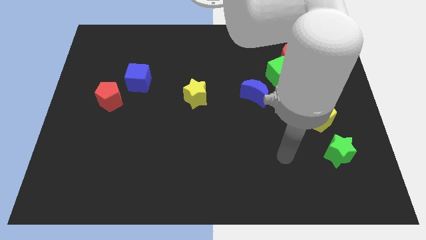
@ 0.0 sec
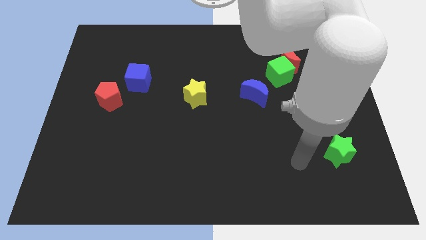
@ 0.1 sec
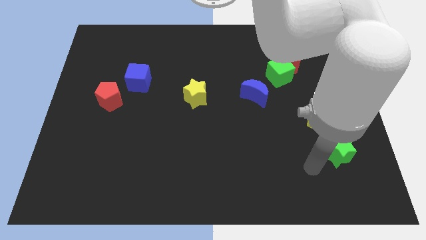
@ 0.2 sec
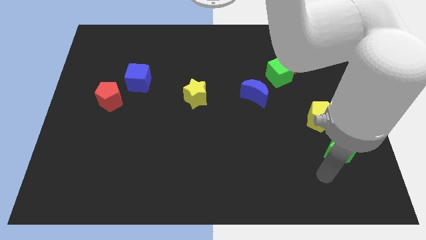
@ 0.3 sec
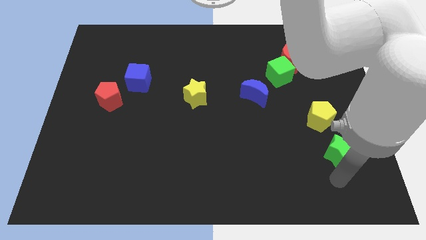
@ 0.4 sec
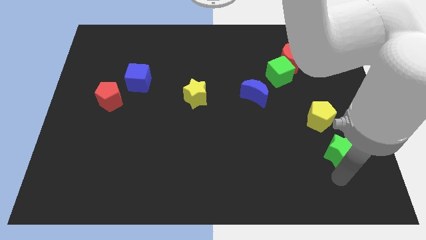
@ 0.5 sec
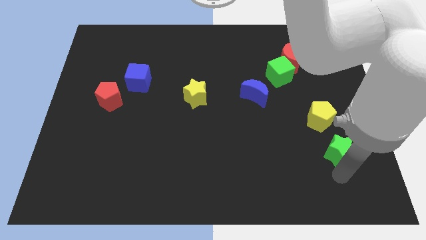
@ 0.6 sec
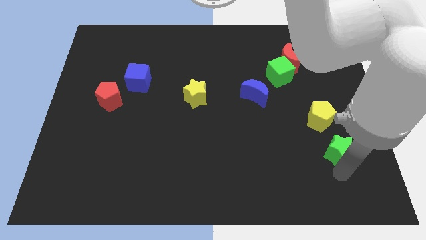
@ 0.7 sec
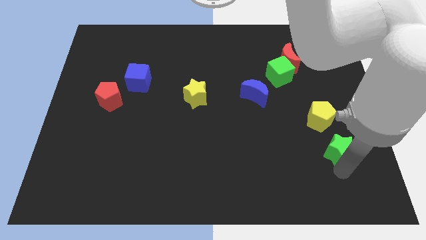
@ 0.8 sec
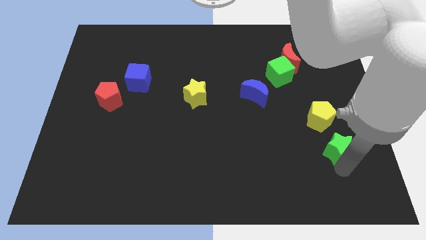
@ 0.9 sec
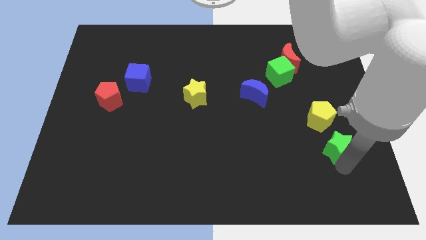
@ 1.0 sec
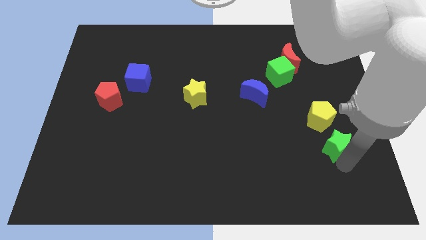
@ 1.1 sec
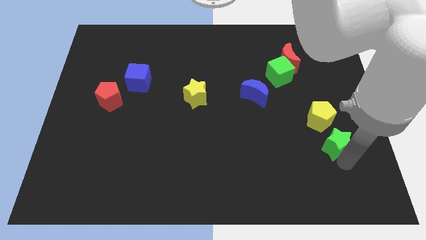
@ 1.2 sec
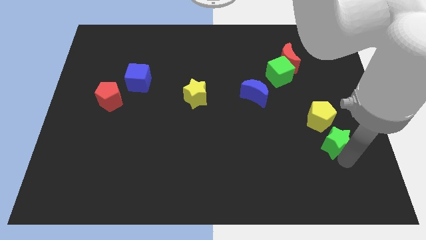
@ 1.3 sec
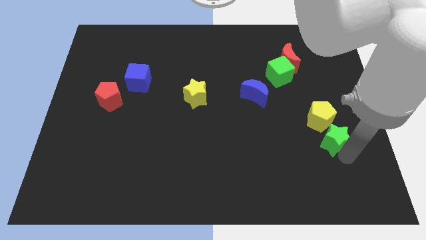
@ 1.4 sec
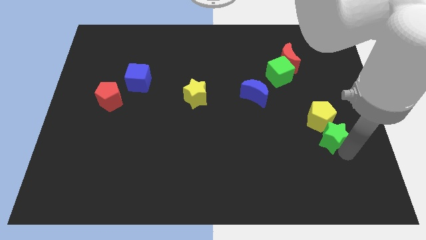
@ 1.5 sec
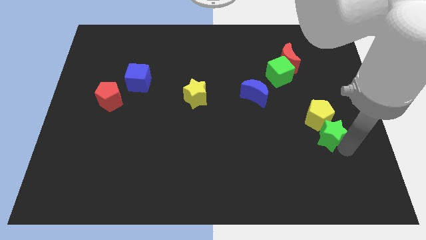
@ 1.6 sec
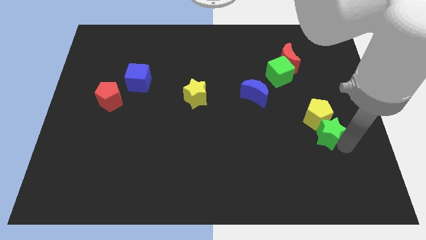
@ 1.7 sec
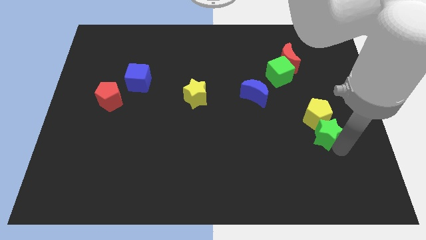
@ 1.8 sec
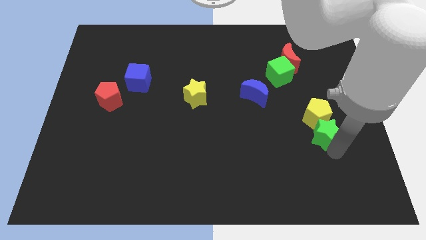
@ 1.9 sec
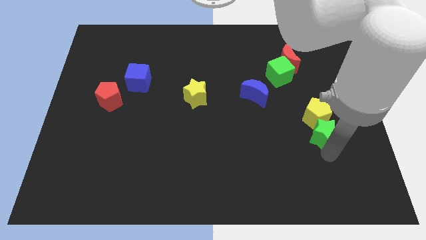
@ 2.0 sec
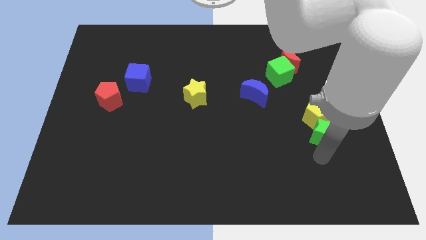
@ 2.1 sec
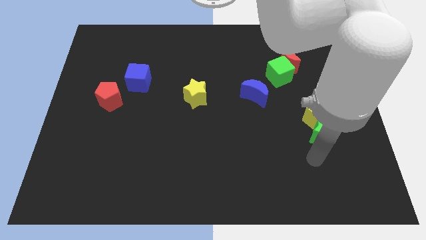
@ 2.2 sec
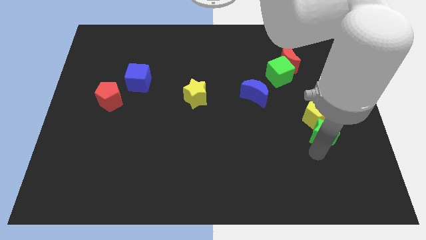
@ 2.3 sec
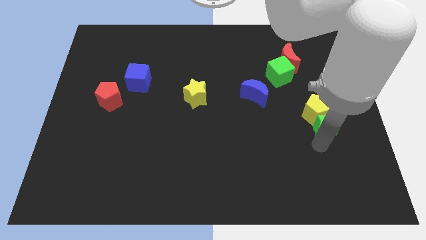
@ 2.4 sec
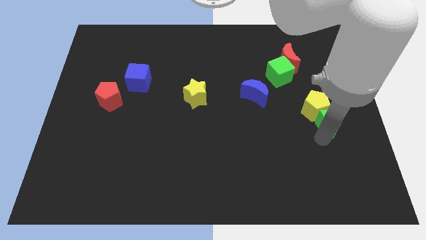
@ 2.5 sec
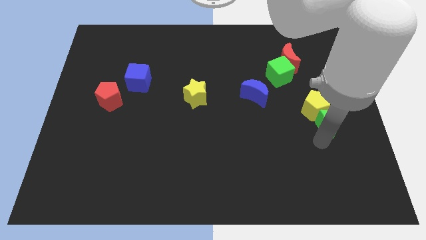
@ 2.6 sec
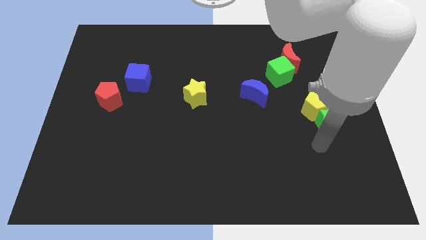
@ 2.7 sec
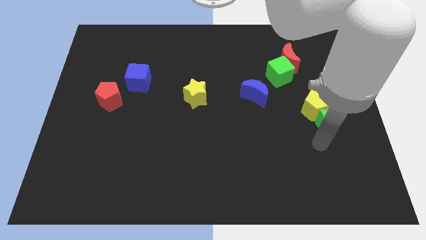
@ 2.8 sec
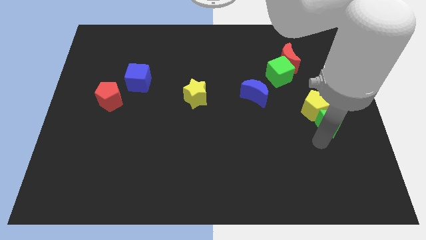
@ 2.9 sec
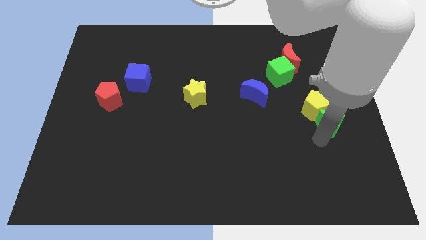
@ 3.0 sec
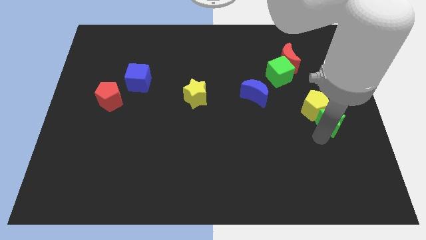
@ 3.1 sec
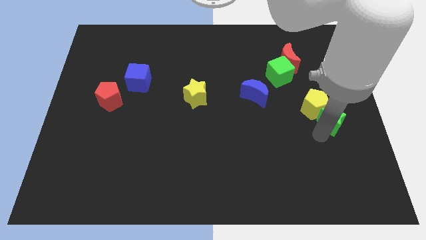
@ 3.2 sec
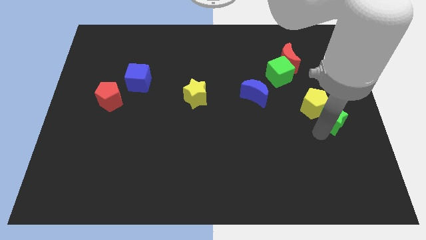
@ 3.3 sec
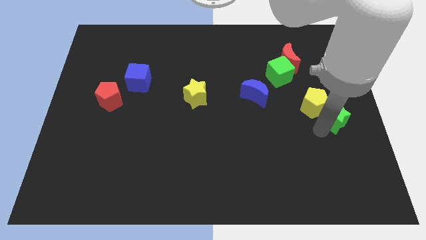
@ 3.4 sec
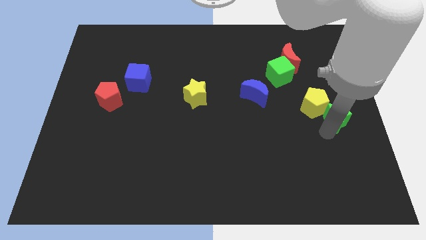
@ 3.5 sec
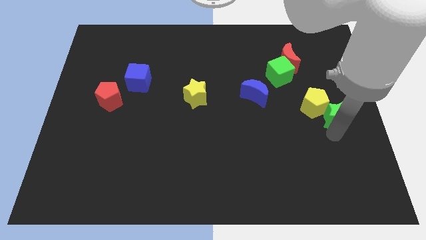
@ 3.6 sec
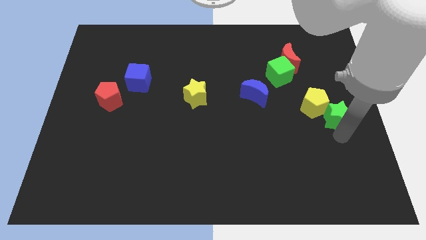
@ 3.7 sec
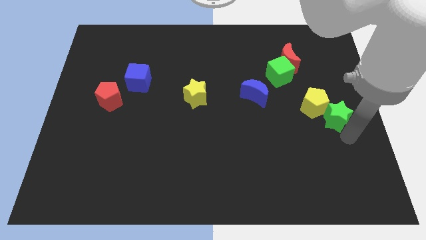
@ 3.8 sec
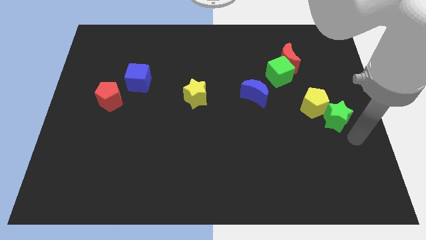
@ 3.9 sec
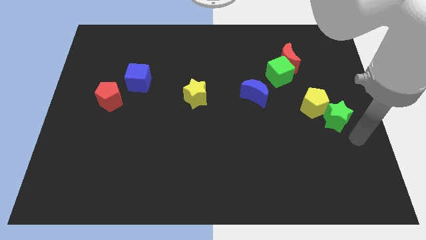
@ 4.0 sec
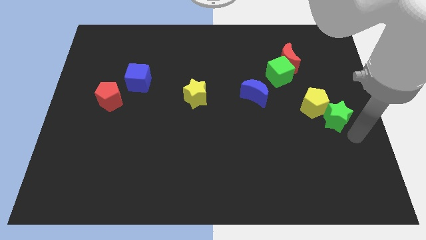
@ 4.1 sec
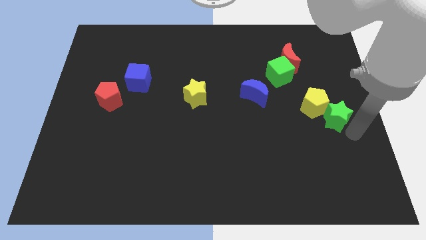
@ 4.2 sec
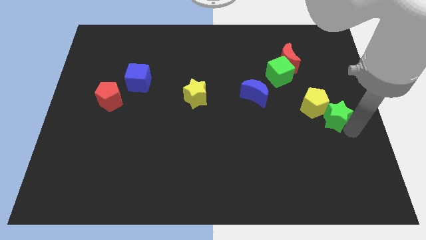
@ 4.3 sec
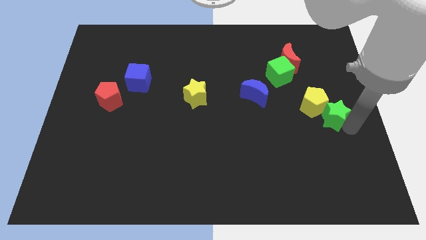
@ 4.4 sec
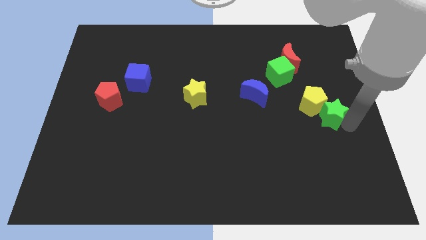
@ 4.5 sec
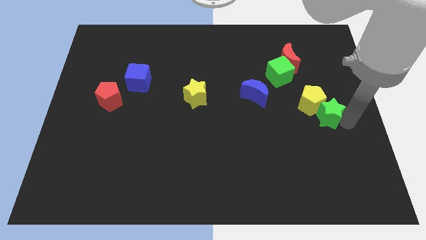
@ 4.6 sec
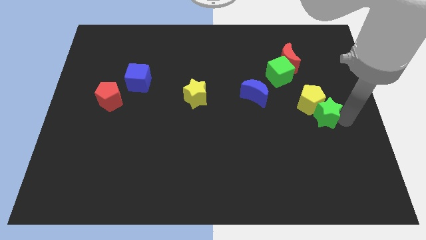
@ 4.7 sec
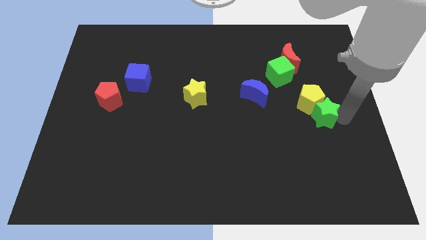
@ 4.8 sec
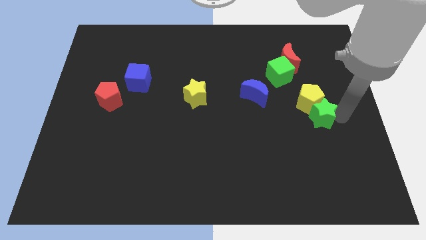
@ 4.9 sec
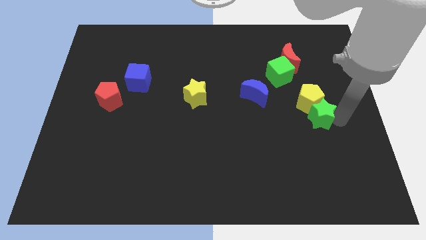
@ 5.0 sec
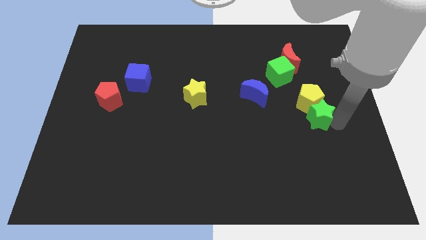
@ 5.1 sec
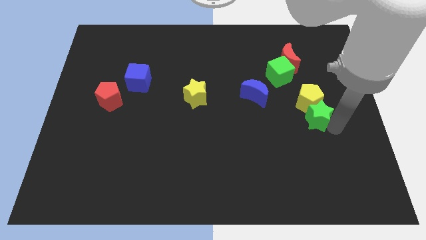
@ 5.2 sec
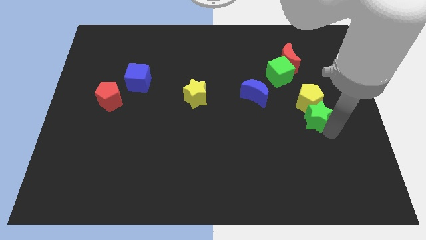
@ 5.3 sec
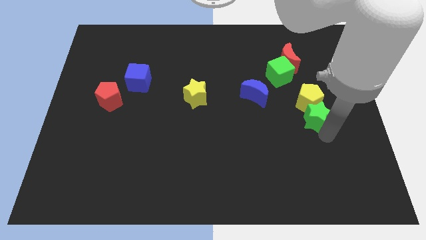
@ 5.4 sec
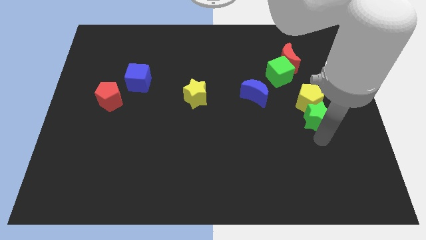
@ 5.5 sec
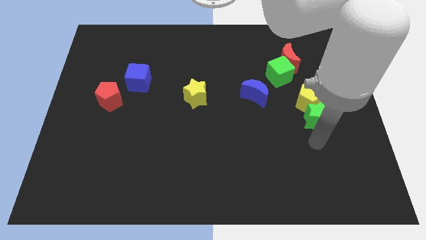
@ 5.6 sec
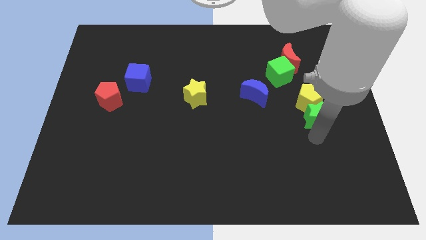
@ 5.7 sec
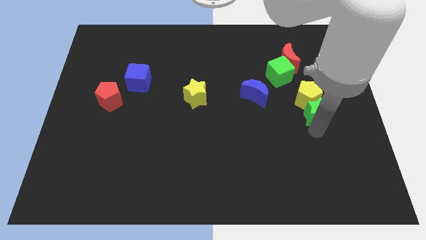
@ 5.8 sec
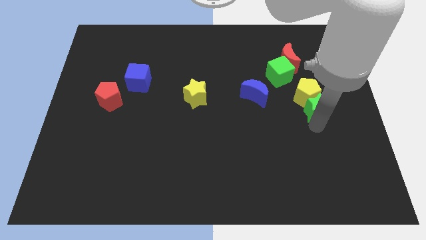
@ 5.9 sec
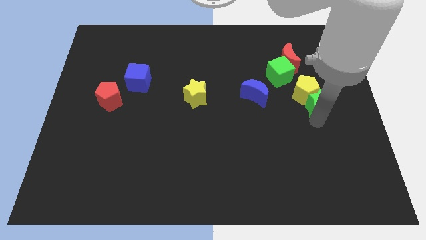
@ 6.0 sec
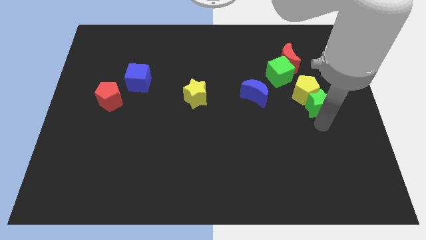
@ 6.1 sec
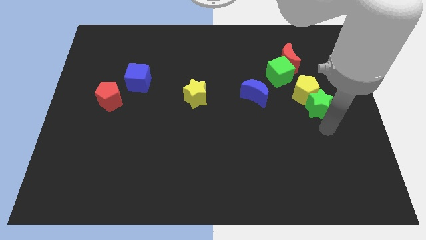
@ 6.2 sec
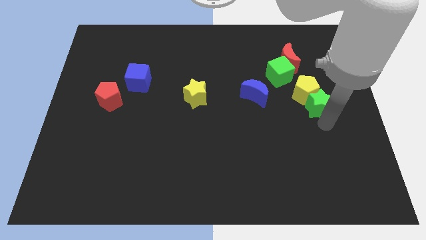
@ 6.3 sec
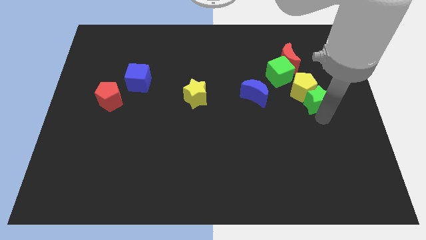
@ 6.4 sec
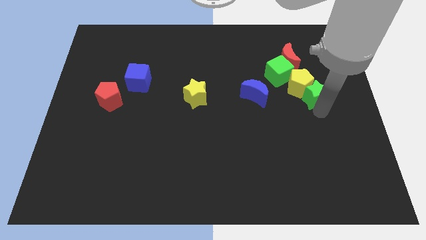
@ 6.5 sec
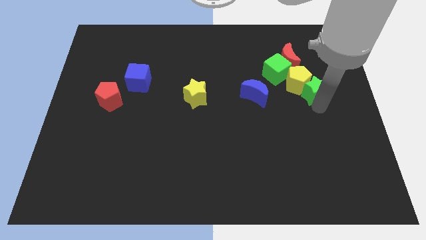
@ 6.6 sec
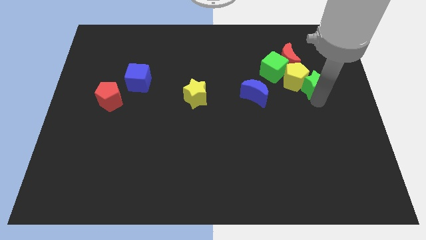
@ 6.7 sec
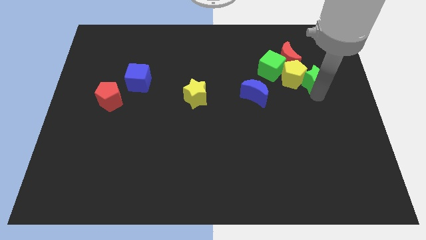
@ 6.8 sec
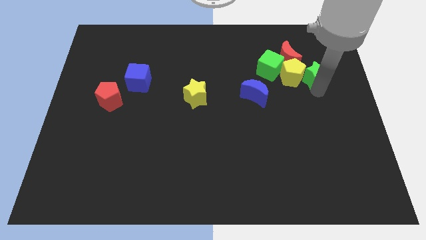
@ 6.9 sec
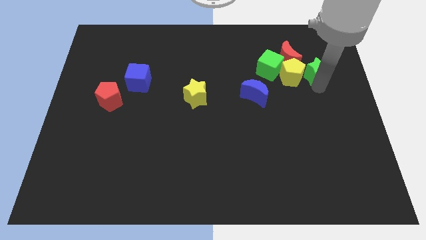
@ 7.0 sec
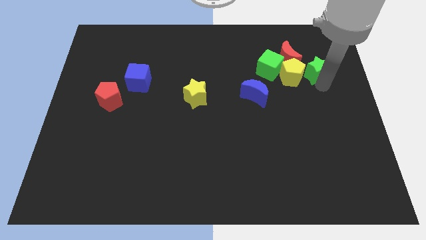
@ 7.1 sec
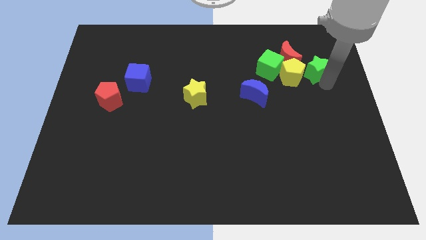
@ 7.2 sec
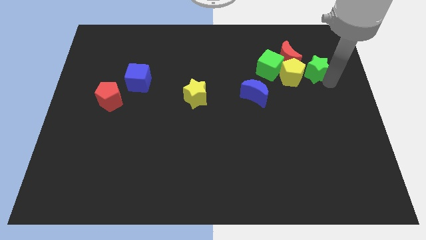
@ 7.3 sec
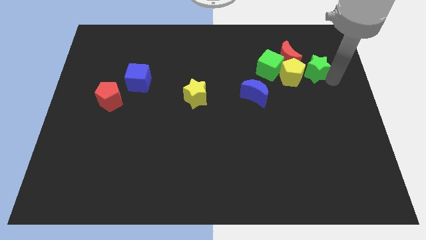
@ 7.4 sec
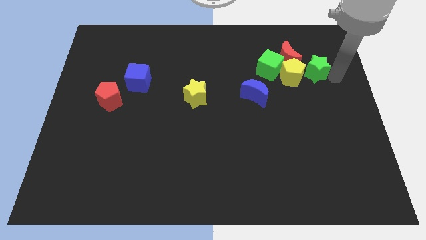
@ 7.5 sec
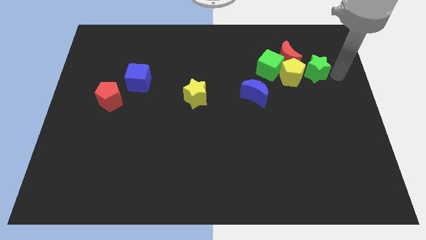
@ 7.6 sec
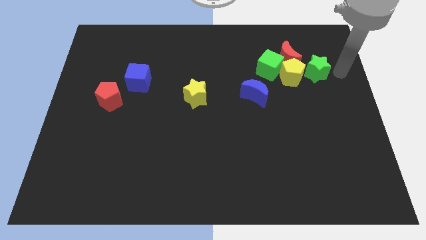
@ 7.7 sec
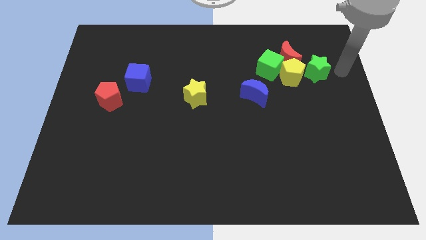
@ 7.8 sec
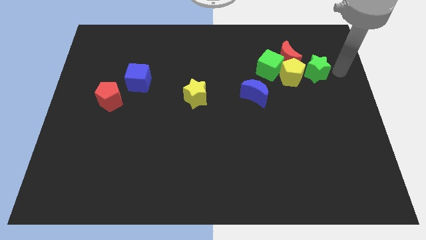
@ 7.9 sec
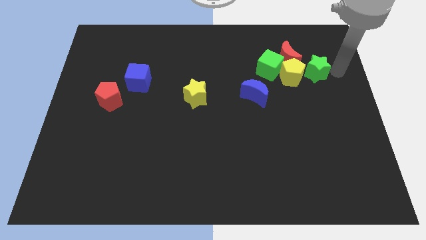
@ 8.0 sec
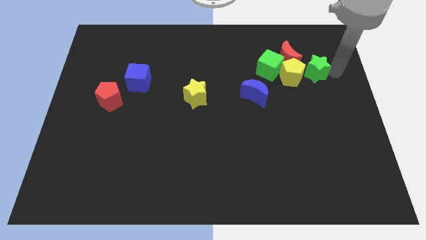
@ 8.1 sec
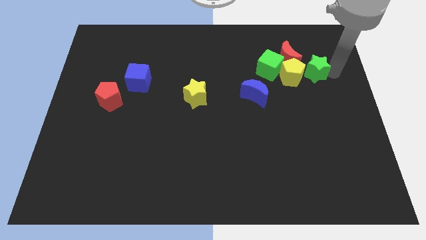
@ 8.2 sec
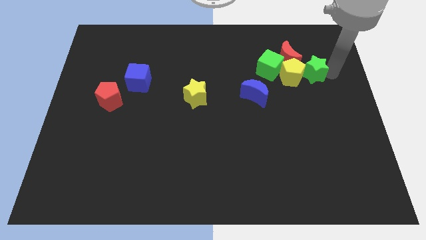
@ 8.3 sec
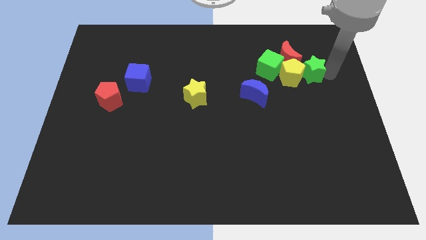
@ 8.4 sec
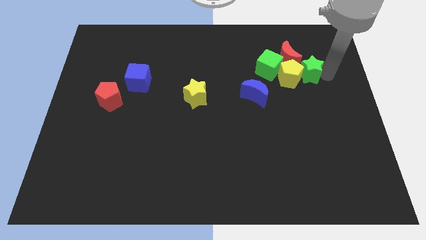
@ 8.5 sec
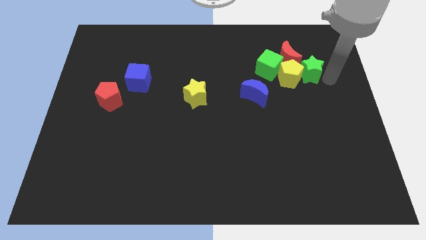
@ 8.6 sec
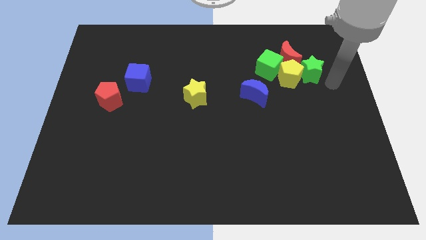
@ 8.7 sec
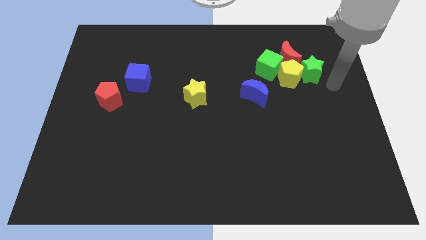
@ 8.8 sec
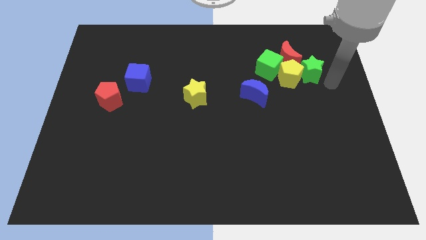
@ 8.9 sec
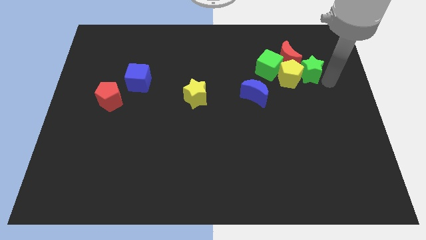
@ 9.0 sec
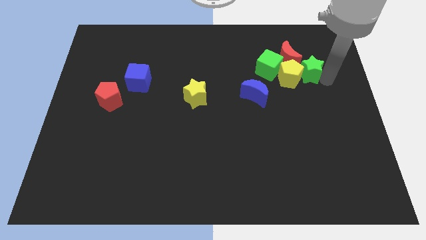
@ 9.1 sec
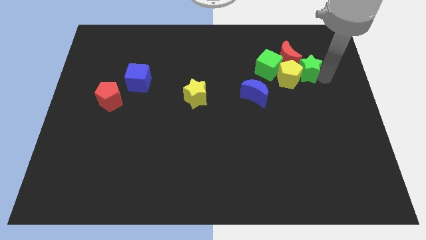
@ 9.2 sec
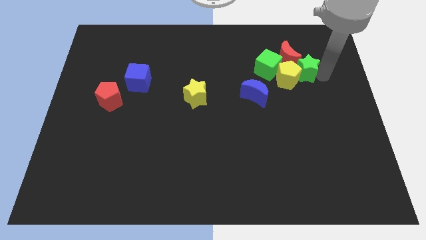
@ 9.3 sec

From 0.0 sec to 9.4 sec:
move the green star next to the red moon
